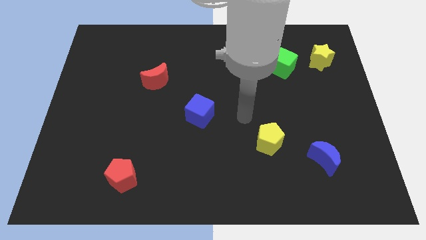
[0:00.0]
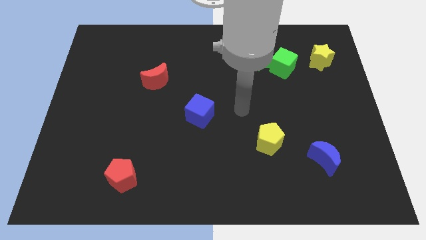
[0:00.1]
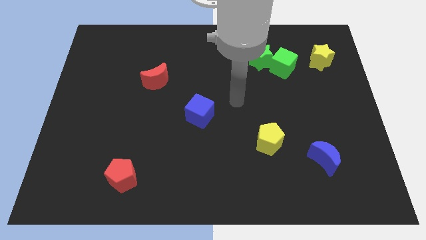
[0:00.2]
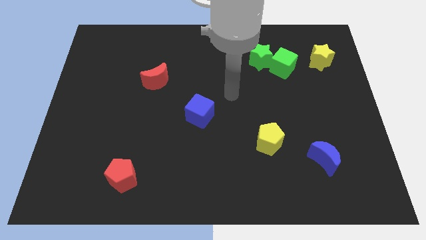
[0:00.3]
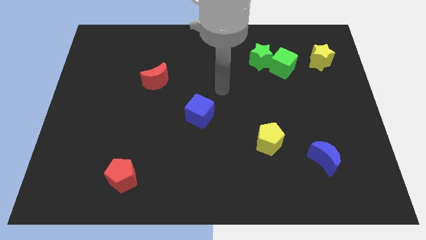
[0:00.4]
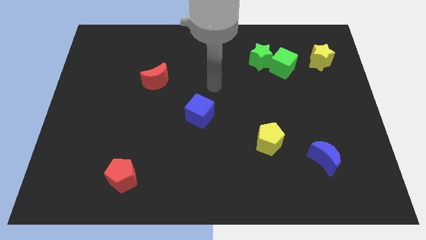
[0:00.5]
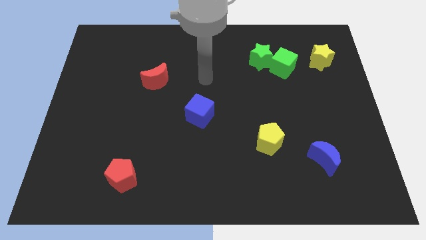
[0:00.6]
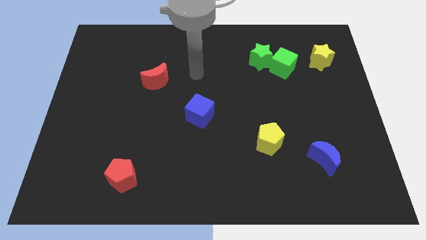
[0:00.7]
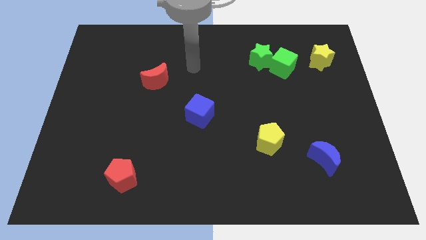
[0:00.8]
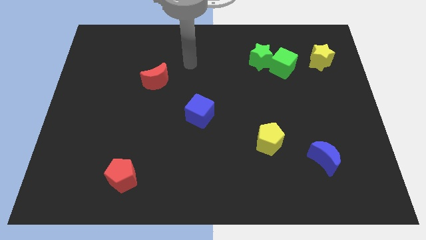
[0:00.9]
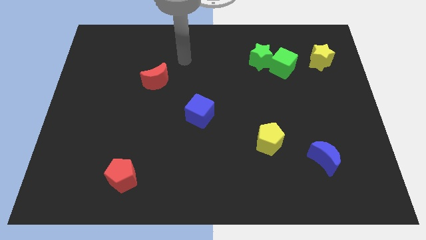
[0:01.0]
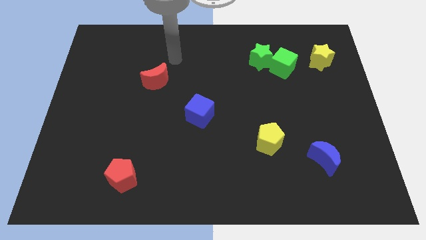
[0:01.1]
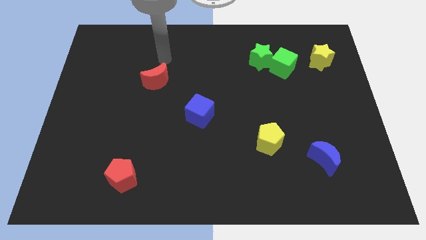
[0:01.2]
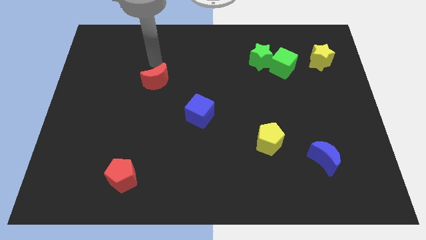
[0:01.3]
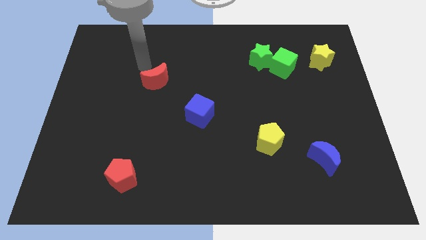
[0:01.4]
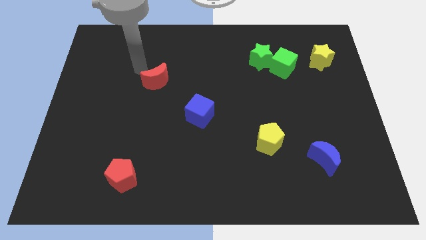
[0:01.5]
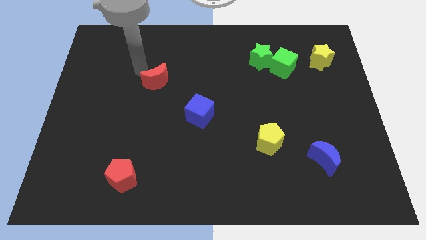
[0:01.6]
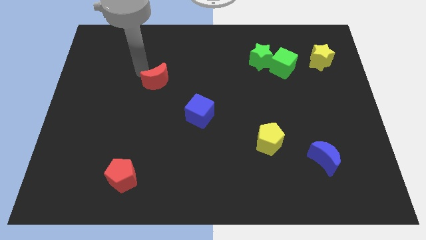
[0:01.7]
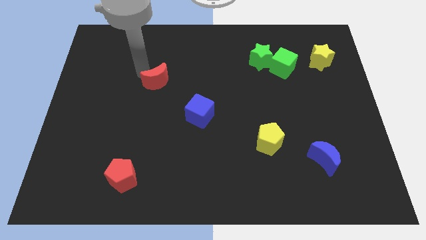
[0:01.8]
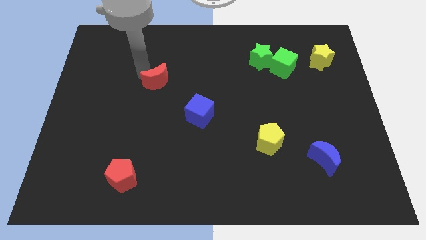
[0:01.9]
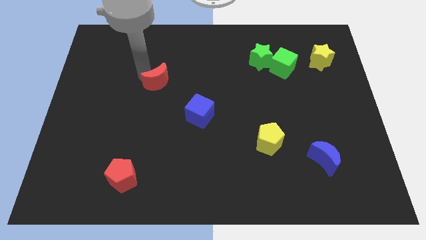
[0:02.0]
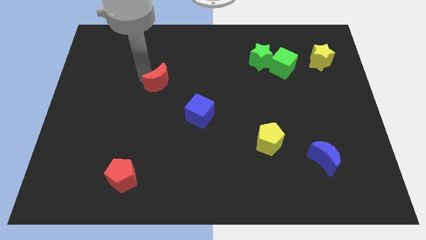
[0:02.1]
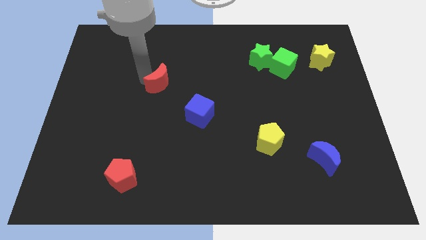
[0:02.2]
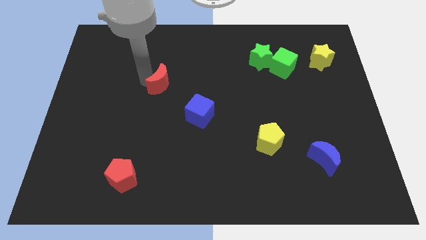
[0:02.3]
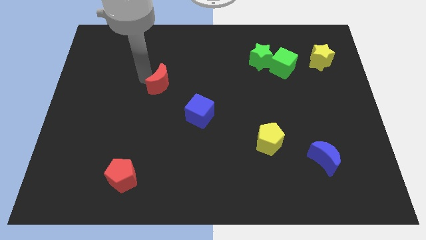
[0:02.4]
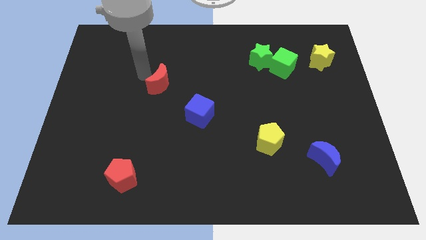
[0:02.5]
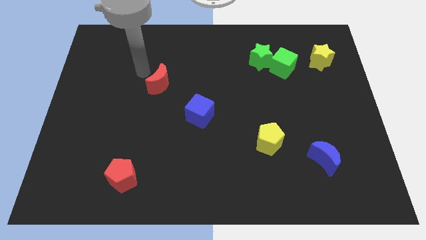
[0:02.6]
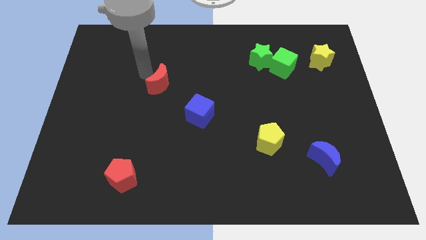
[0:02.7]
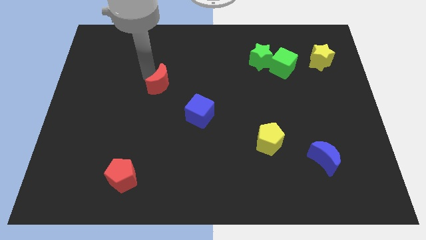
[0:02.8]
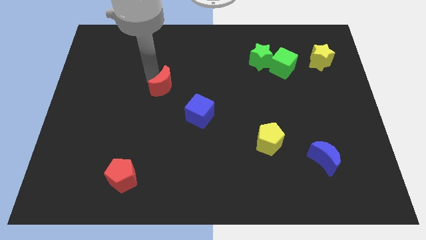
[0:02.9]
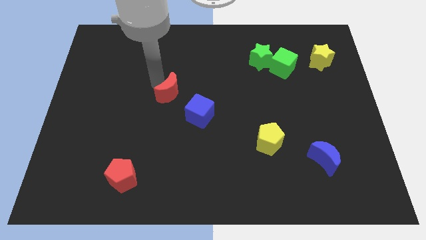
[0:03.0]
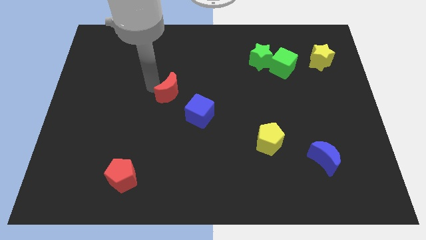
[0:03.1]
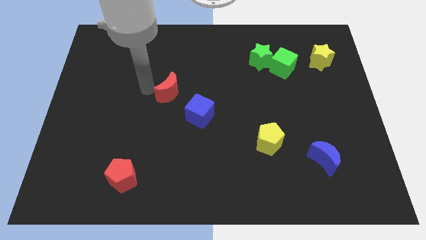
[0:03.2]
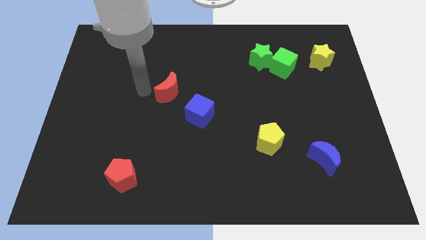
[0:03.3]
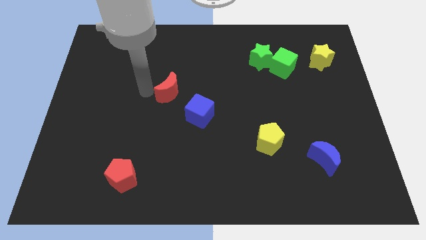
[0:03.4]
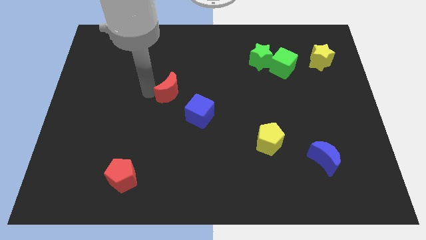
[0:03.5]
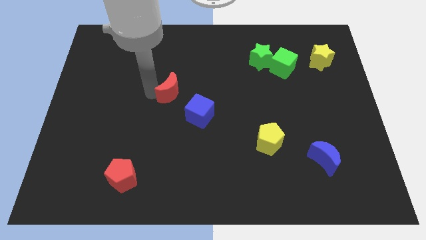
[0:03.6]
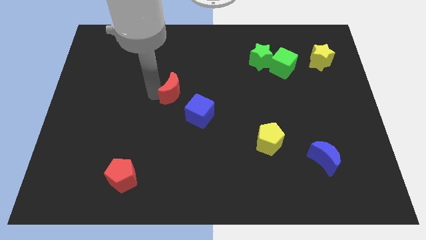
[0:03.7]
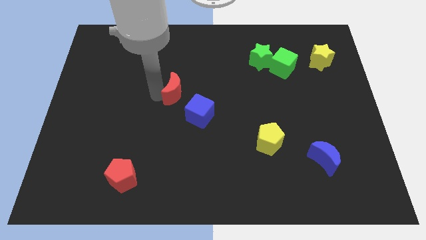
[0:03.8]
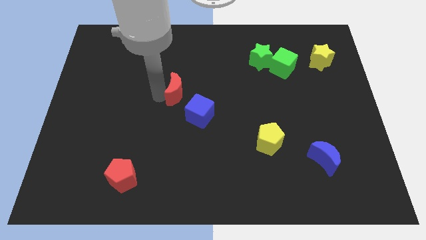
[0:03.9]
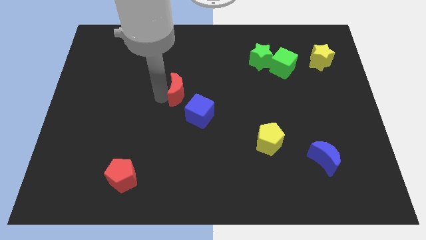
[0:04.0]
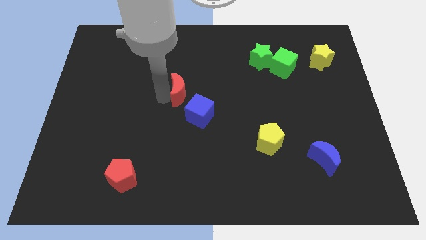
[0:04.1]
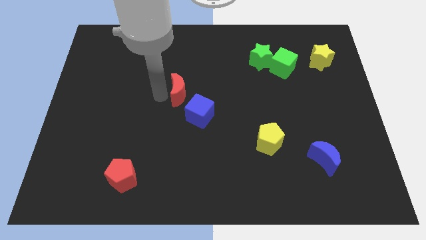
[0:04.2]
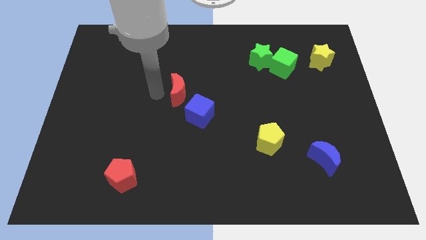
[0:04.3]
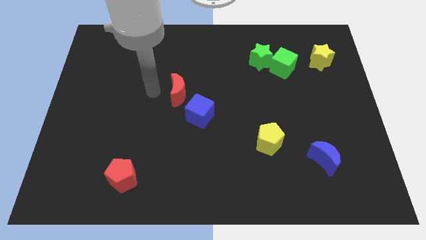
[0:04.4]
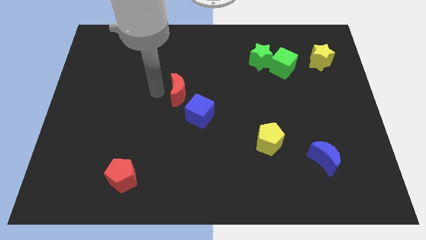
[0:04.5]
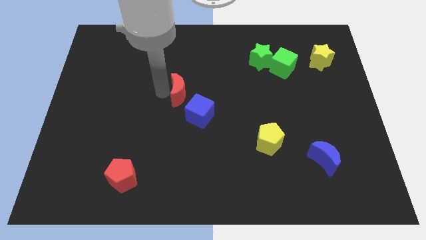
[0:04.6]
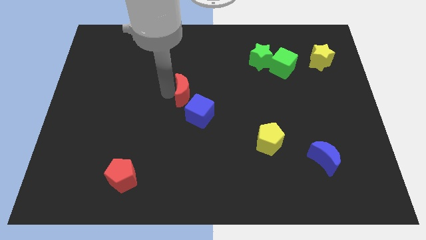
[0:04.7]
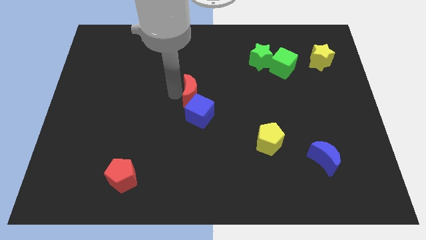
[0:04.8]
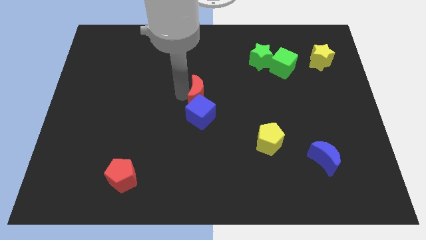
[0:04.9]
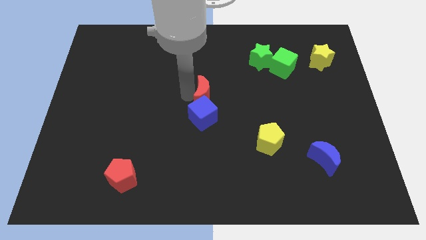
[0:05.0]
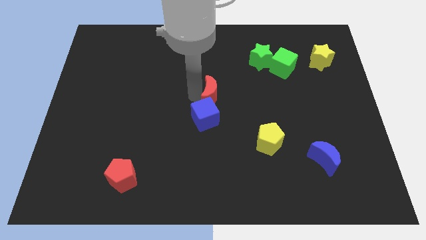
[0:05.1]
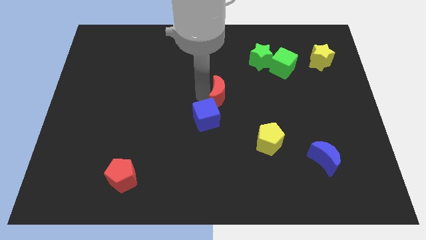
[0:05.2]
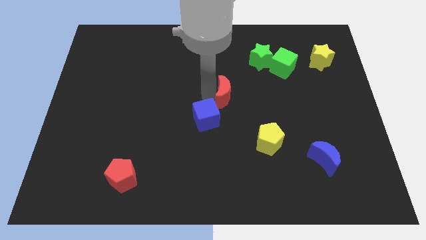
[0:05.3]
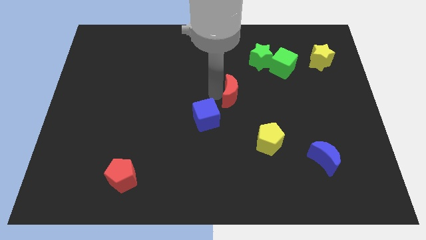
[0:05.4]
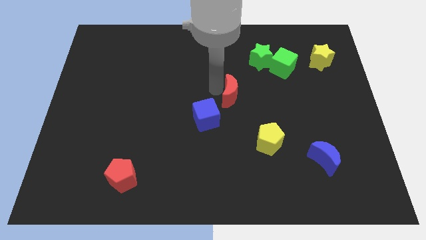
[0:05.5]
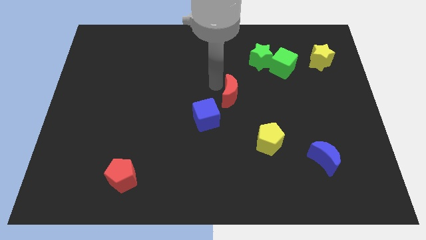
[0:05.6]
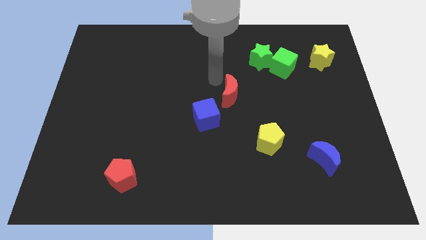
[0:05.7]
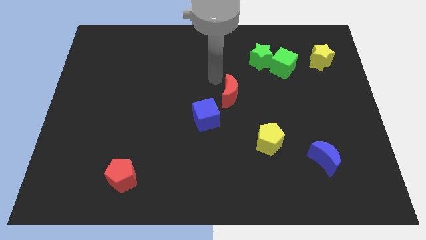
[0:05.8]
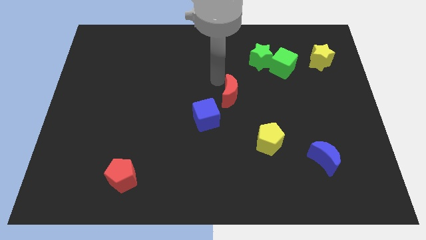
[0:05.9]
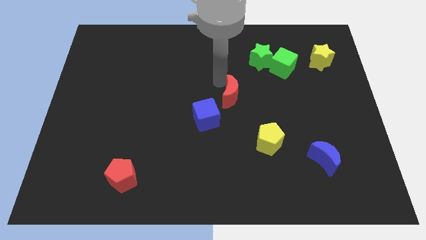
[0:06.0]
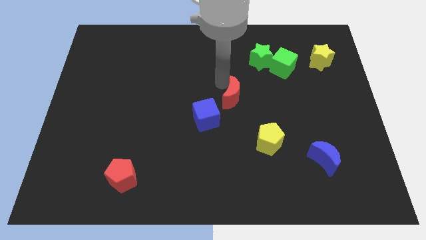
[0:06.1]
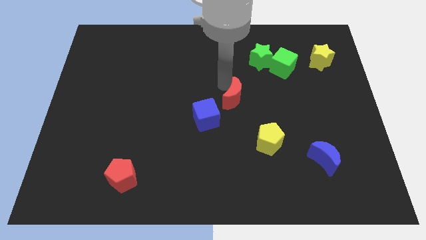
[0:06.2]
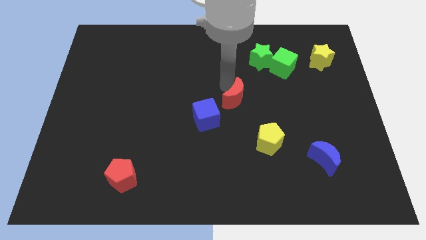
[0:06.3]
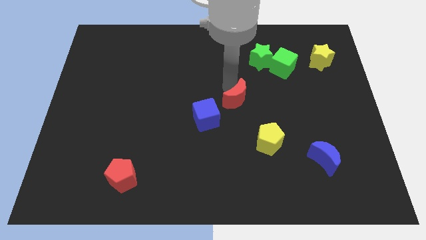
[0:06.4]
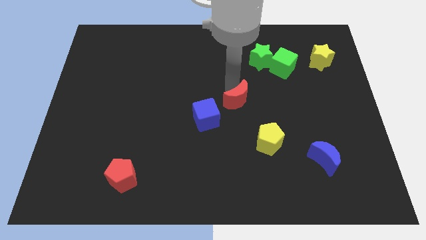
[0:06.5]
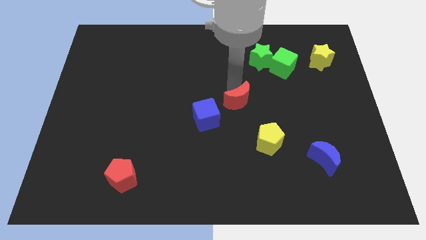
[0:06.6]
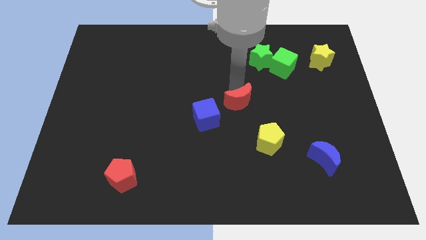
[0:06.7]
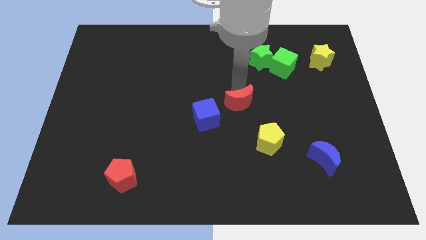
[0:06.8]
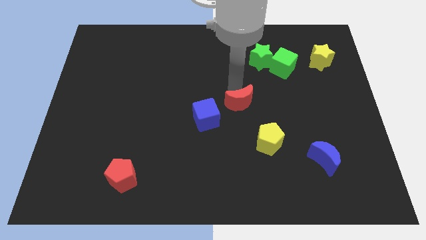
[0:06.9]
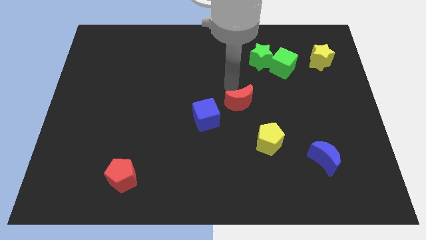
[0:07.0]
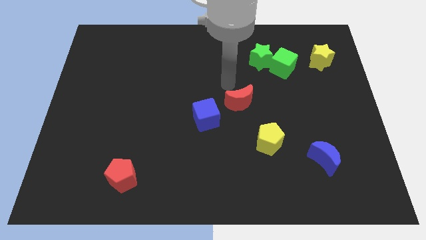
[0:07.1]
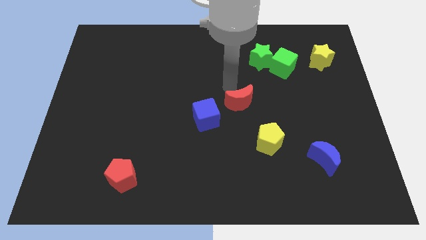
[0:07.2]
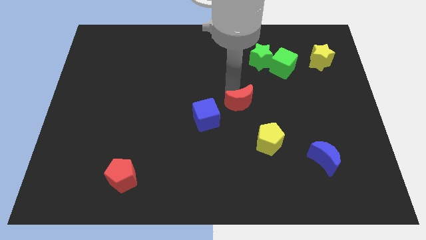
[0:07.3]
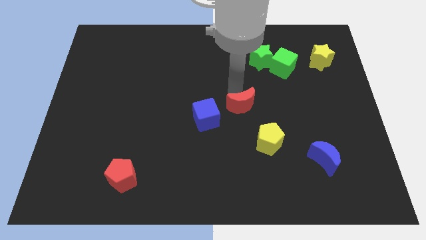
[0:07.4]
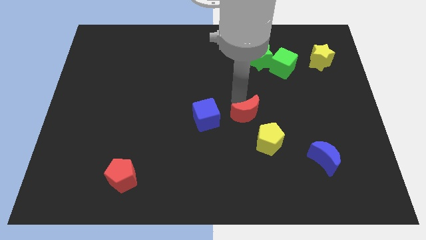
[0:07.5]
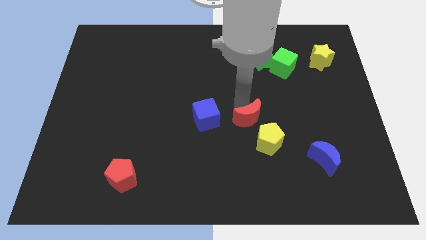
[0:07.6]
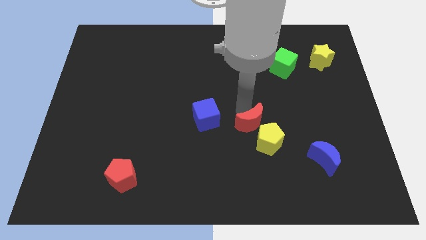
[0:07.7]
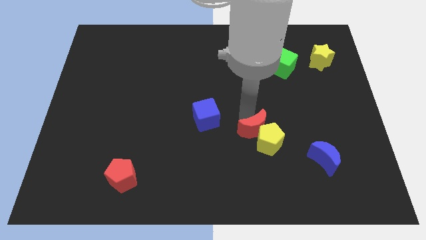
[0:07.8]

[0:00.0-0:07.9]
push the red moon to the yellow pentagon
